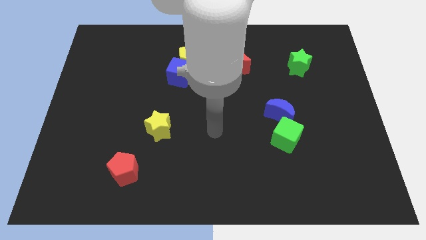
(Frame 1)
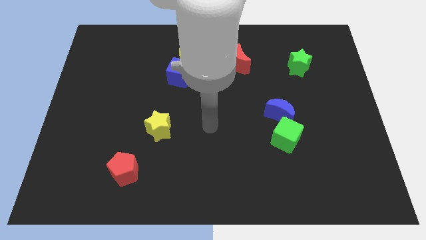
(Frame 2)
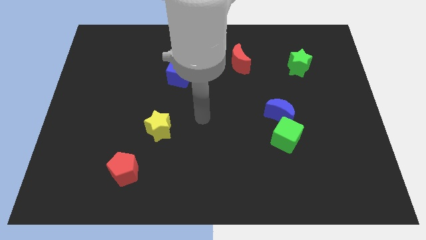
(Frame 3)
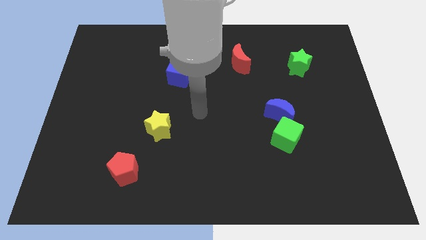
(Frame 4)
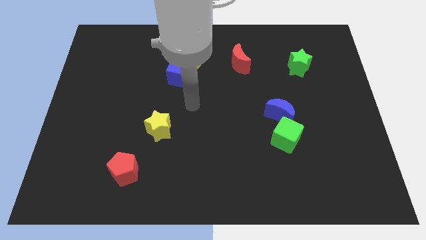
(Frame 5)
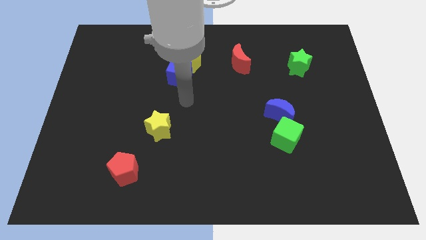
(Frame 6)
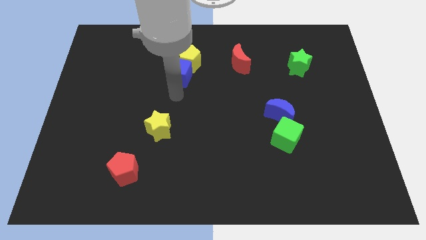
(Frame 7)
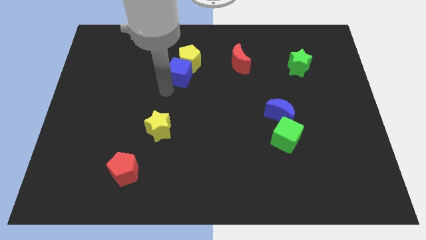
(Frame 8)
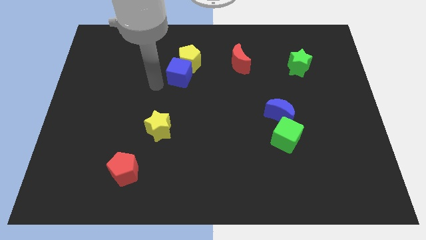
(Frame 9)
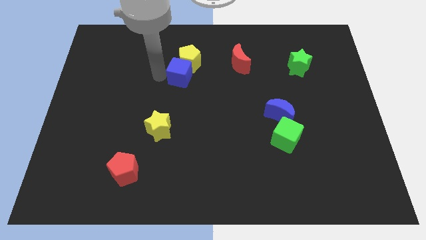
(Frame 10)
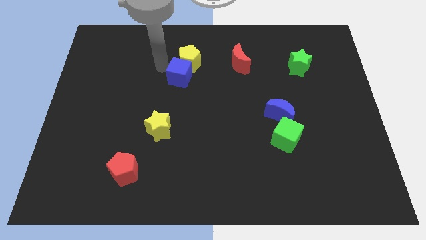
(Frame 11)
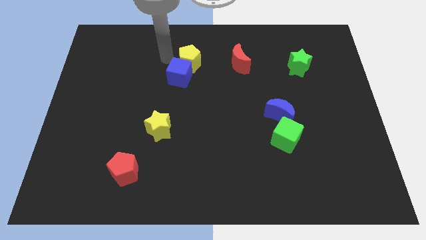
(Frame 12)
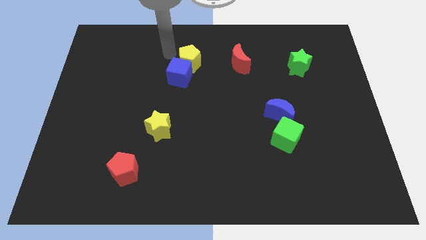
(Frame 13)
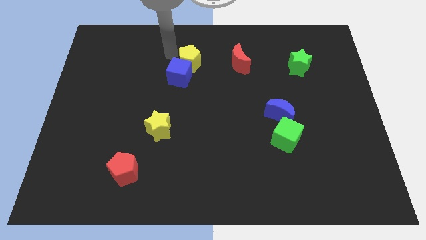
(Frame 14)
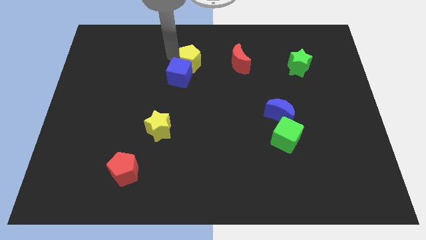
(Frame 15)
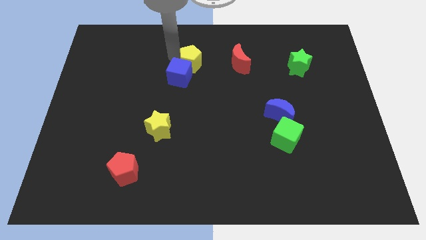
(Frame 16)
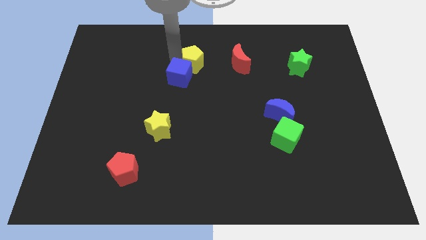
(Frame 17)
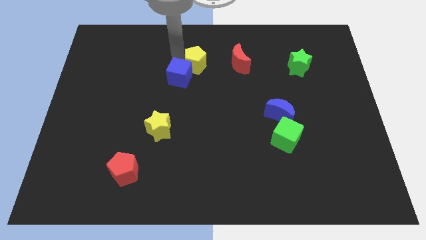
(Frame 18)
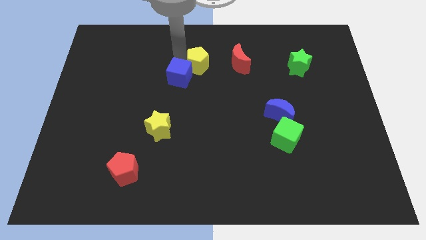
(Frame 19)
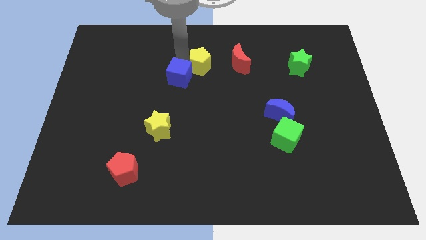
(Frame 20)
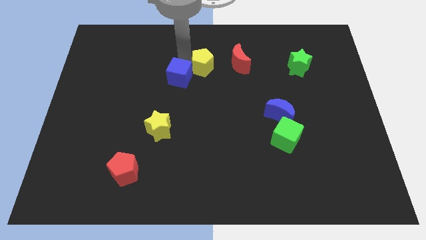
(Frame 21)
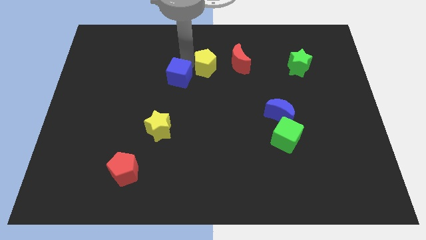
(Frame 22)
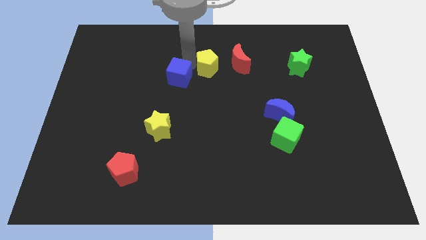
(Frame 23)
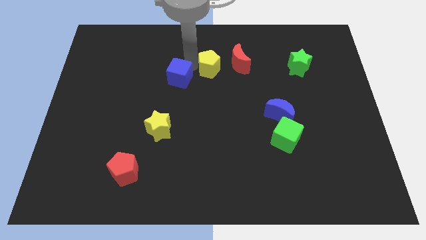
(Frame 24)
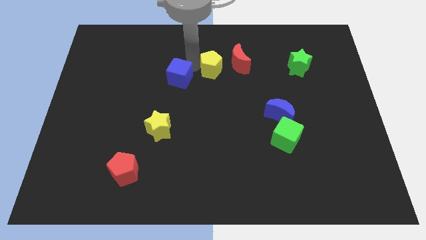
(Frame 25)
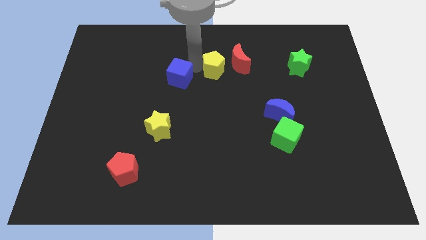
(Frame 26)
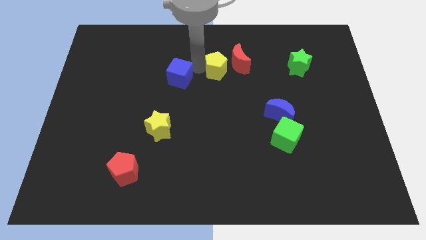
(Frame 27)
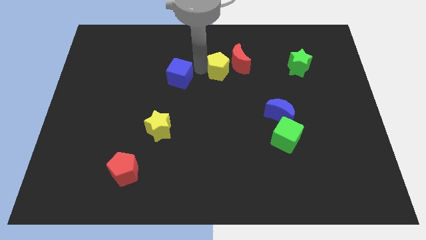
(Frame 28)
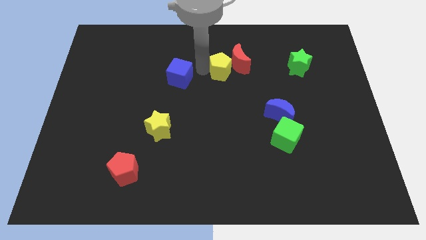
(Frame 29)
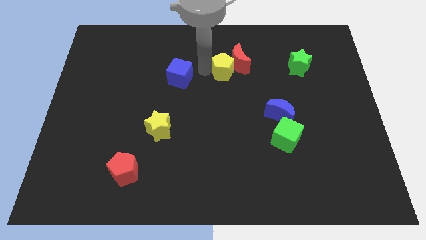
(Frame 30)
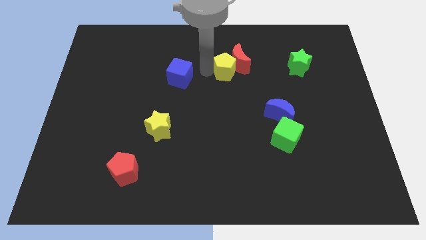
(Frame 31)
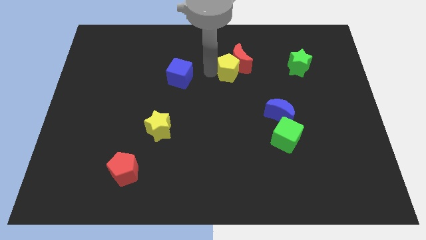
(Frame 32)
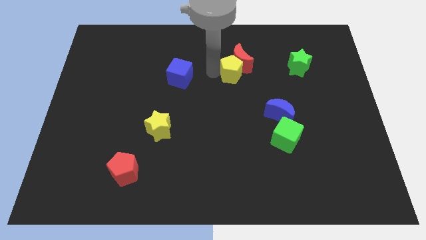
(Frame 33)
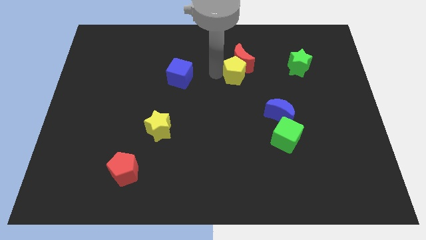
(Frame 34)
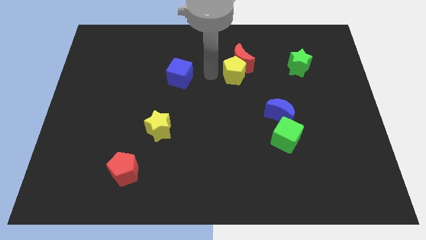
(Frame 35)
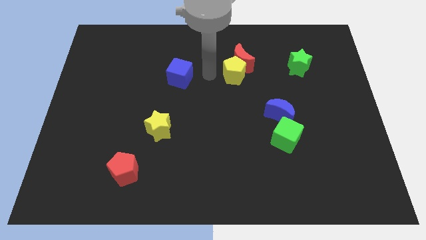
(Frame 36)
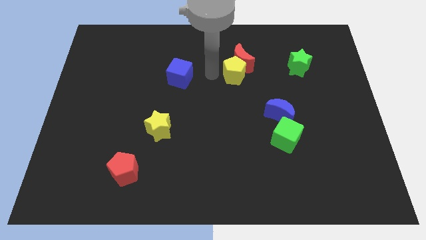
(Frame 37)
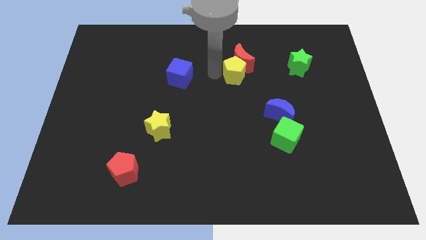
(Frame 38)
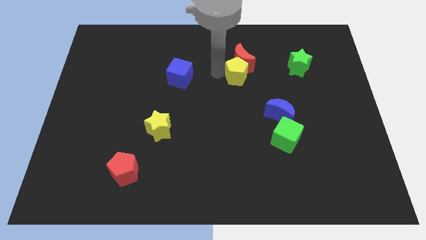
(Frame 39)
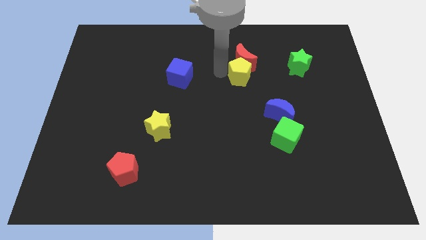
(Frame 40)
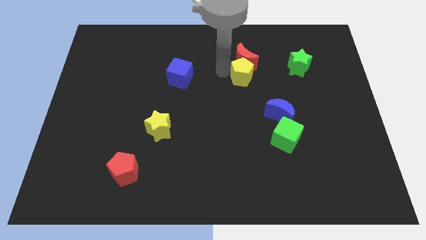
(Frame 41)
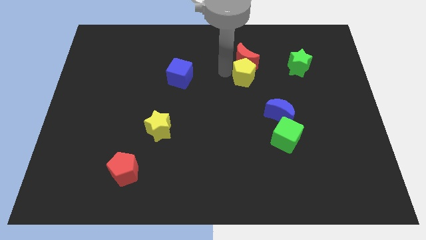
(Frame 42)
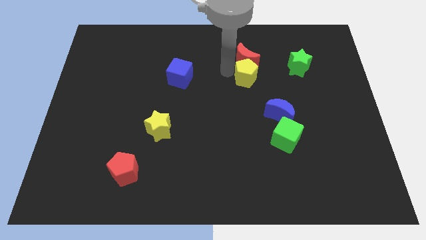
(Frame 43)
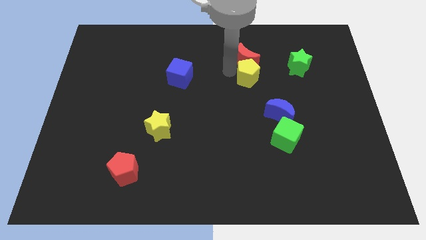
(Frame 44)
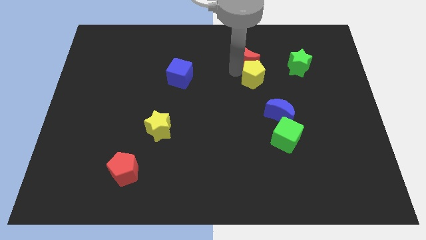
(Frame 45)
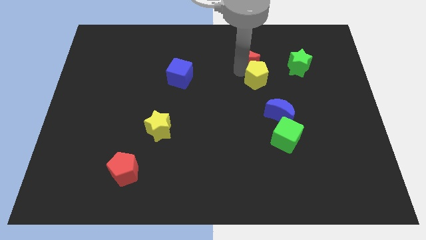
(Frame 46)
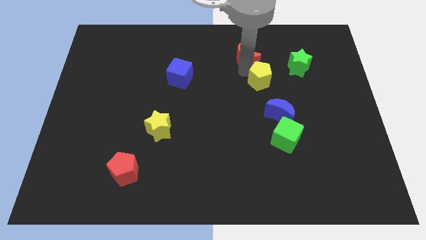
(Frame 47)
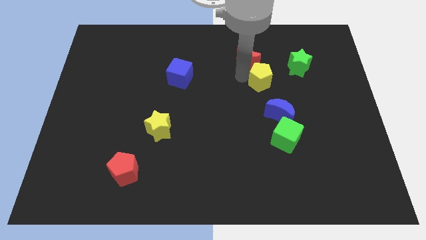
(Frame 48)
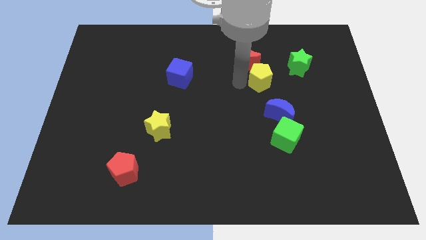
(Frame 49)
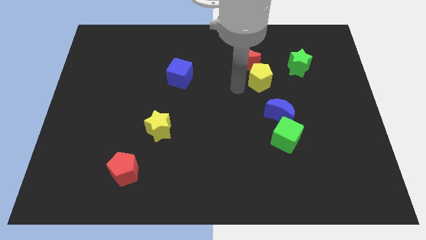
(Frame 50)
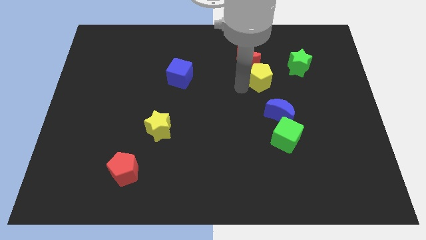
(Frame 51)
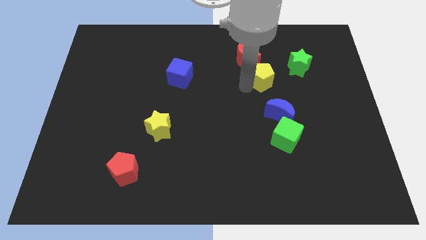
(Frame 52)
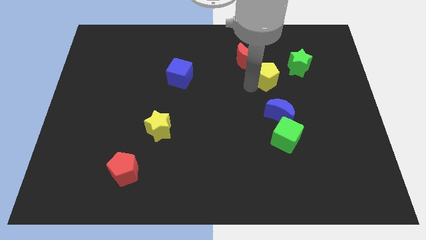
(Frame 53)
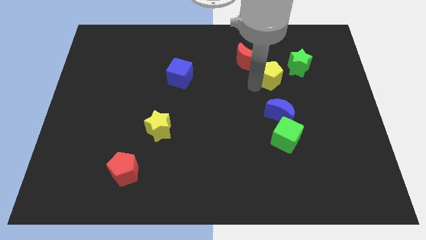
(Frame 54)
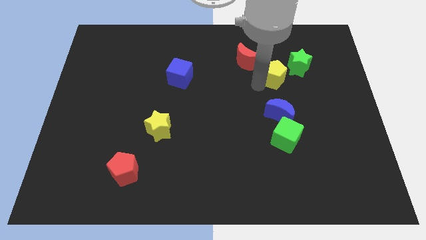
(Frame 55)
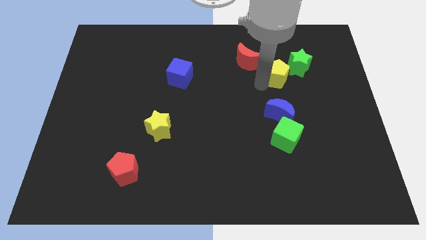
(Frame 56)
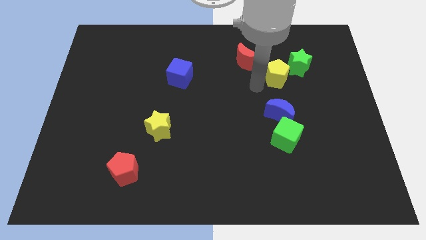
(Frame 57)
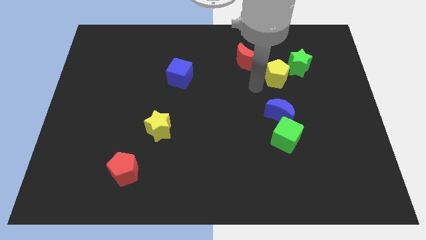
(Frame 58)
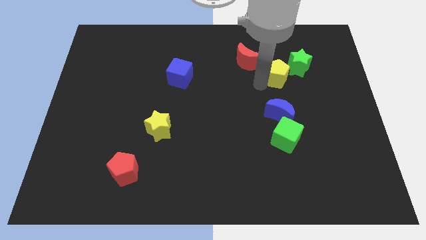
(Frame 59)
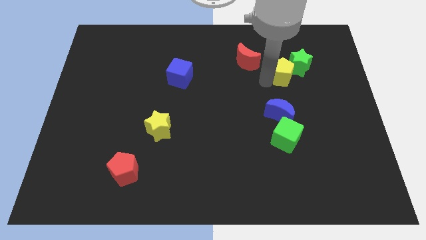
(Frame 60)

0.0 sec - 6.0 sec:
slide the yellow pentagon close to the green star

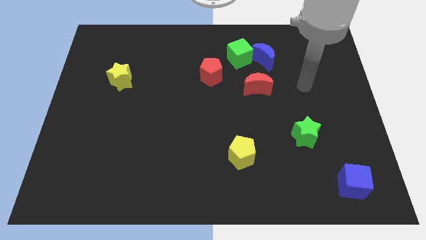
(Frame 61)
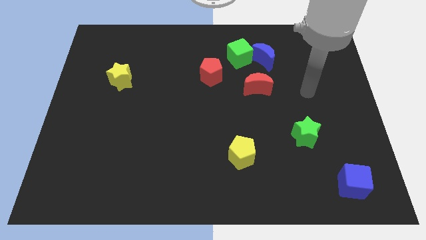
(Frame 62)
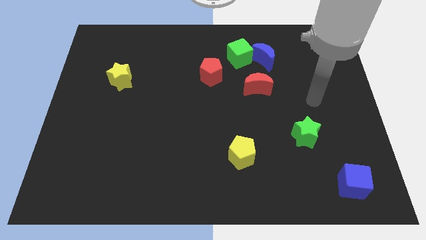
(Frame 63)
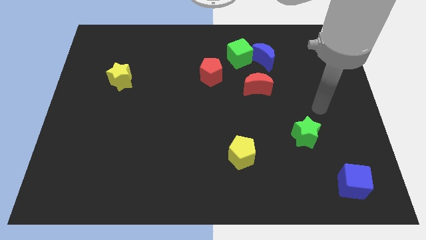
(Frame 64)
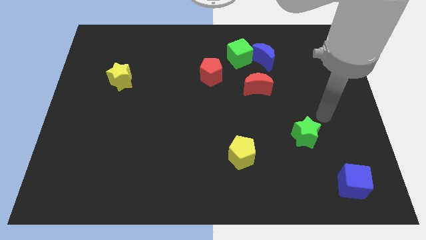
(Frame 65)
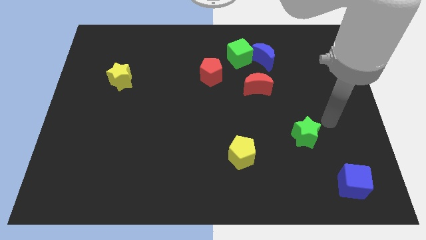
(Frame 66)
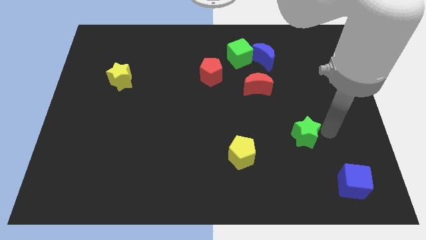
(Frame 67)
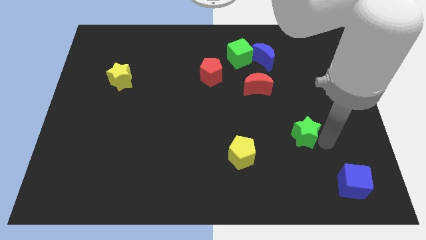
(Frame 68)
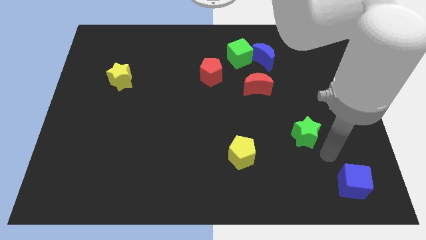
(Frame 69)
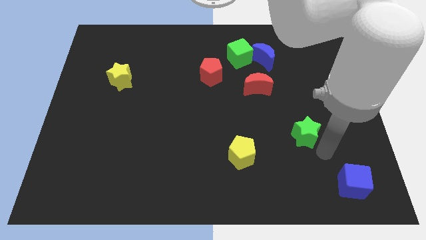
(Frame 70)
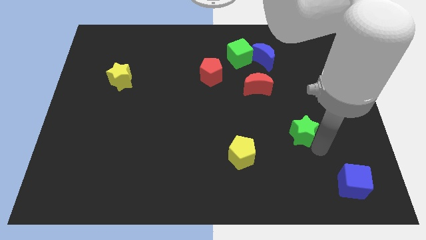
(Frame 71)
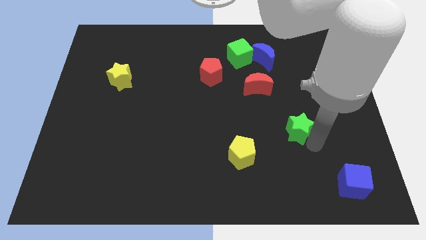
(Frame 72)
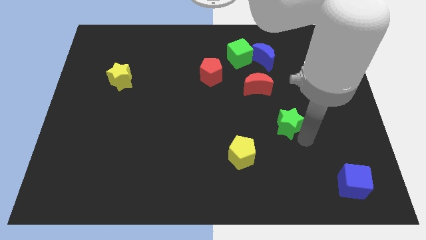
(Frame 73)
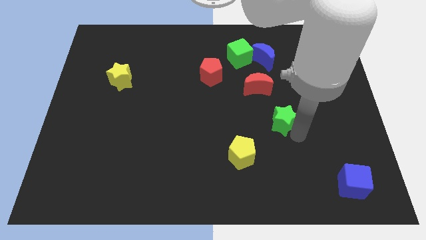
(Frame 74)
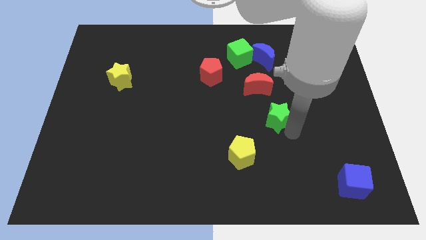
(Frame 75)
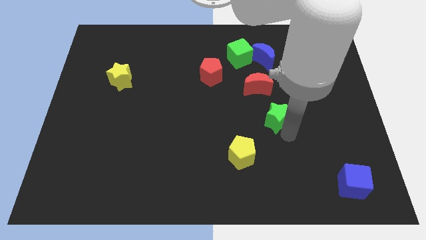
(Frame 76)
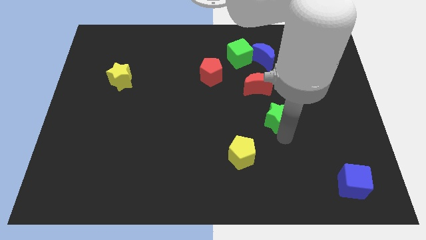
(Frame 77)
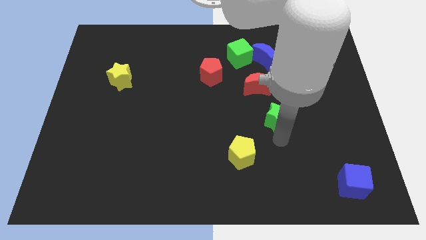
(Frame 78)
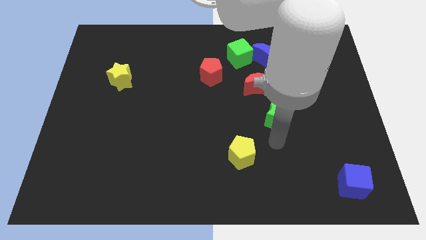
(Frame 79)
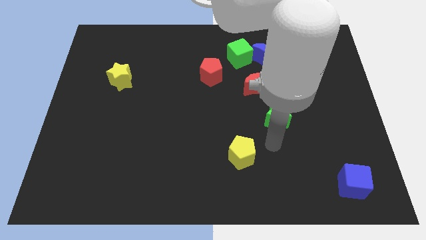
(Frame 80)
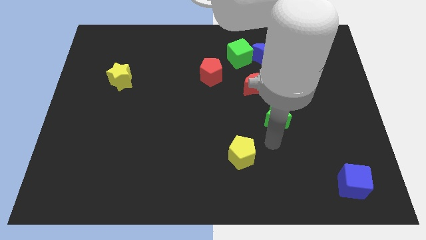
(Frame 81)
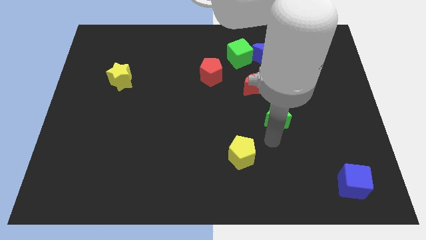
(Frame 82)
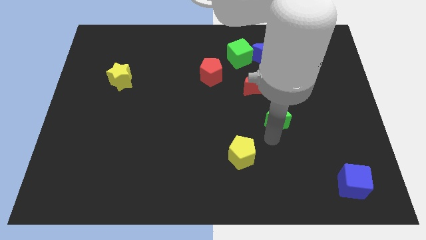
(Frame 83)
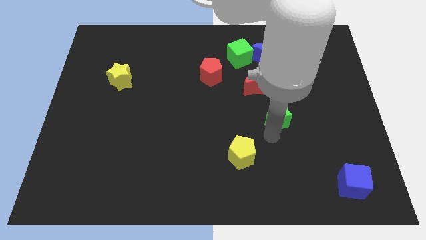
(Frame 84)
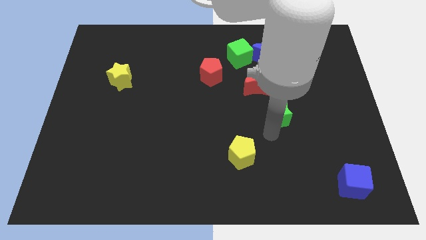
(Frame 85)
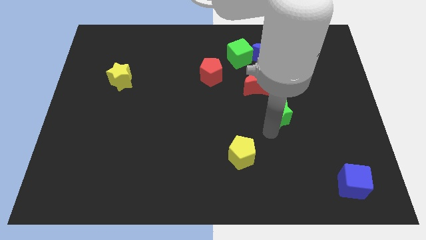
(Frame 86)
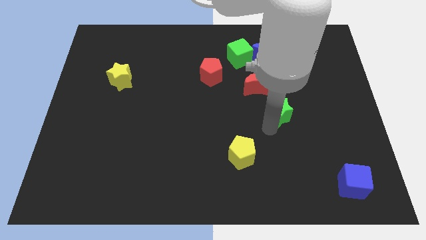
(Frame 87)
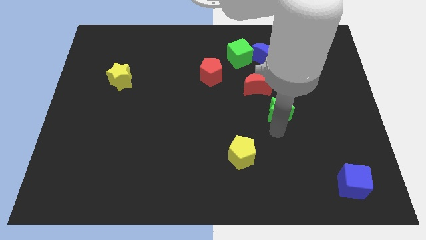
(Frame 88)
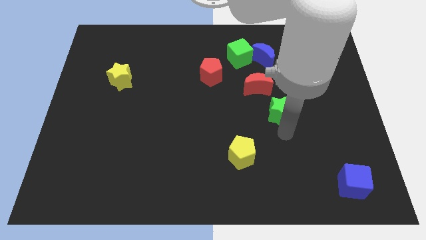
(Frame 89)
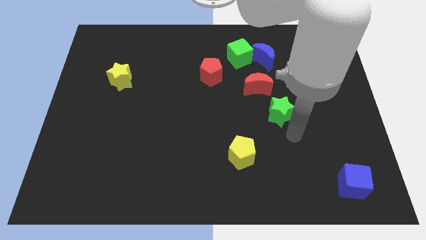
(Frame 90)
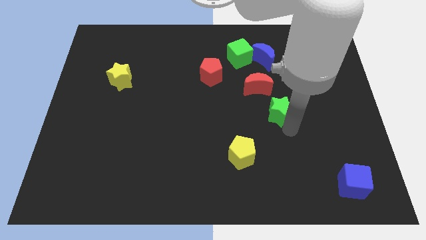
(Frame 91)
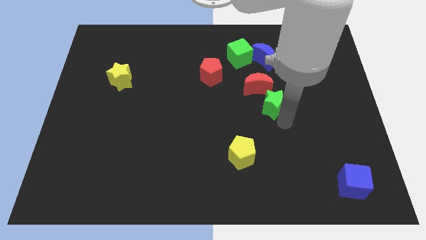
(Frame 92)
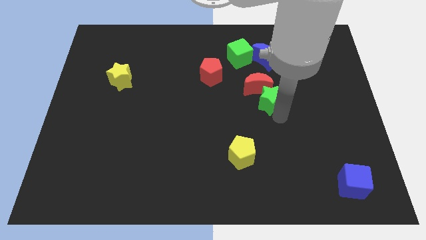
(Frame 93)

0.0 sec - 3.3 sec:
push the green star close to the red moon
